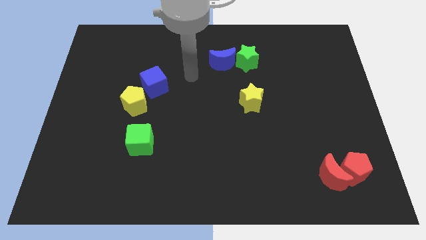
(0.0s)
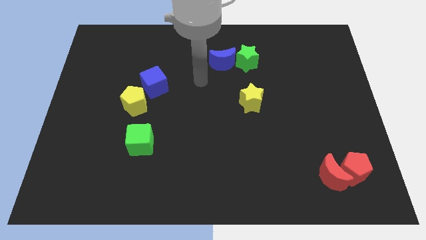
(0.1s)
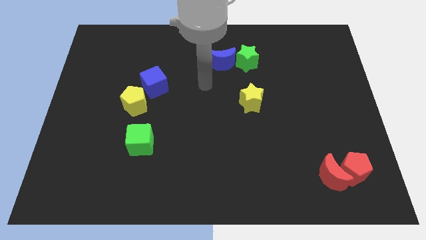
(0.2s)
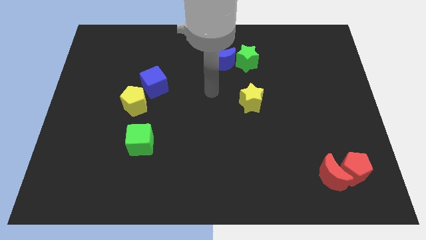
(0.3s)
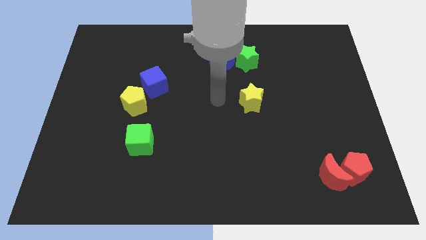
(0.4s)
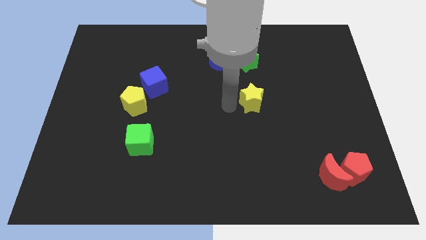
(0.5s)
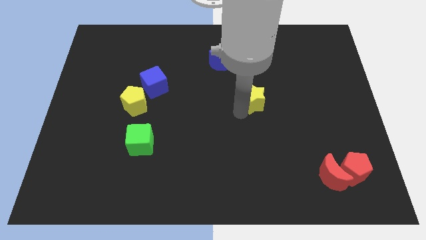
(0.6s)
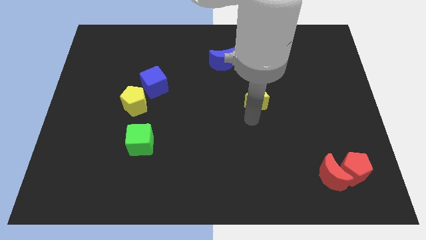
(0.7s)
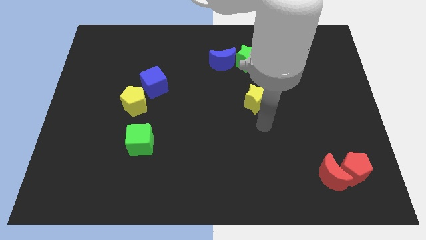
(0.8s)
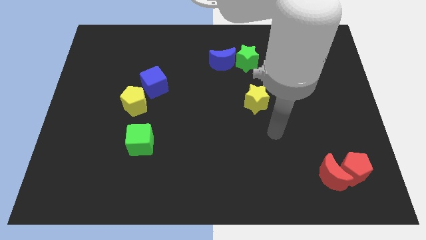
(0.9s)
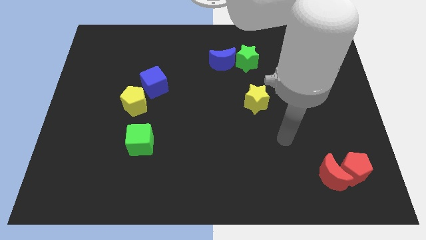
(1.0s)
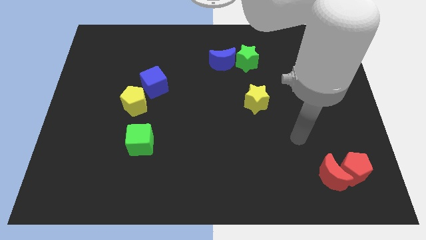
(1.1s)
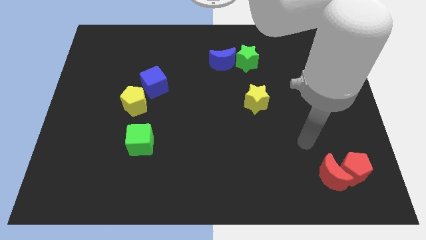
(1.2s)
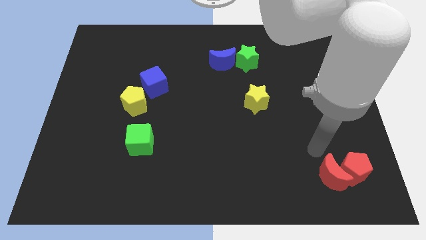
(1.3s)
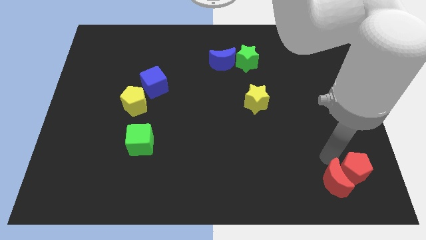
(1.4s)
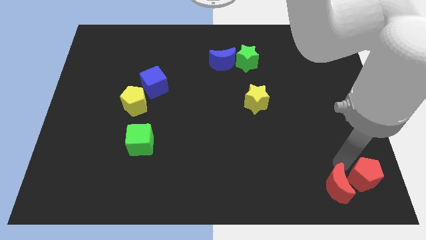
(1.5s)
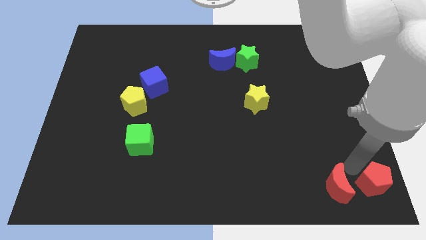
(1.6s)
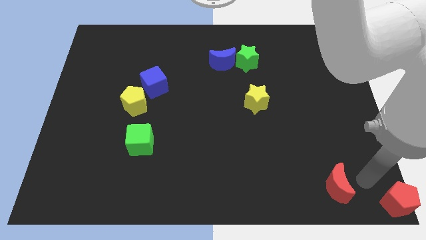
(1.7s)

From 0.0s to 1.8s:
pull the red moon apart from the red pentagon

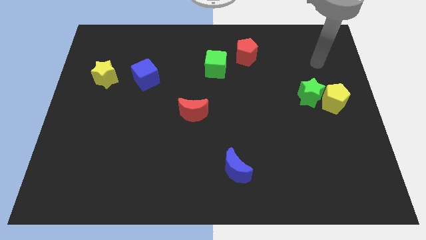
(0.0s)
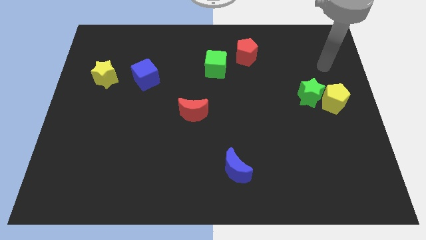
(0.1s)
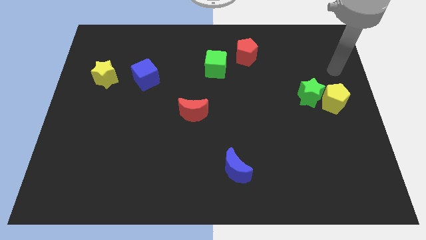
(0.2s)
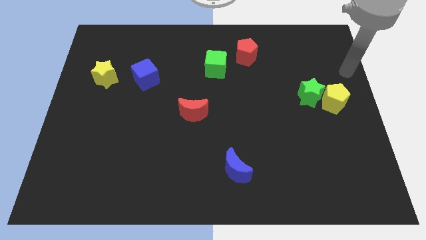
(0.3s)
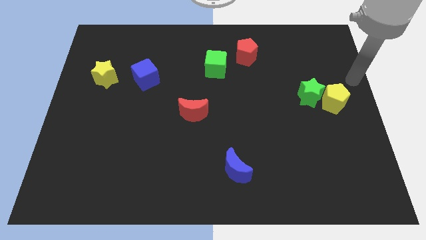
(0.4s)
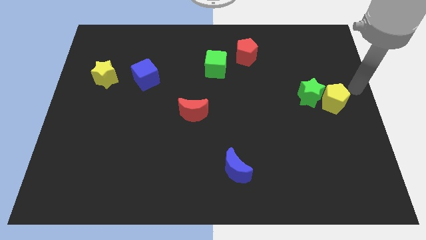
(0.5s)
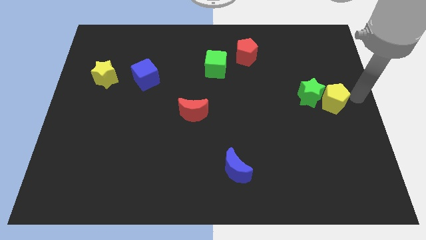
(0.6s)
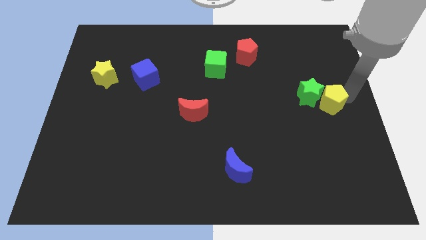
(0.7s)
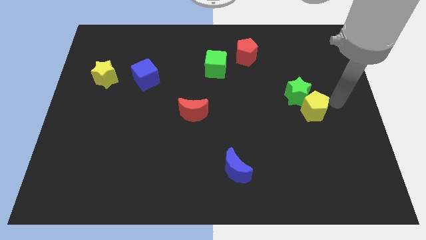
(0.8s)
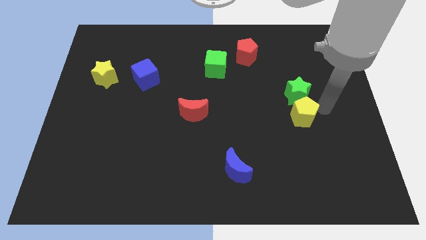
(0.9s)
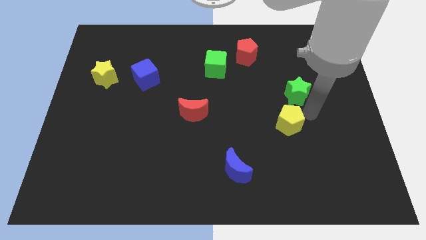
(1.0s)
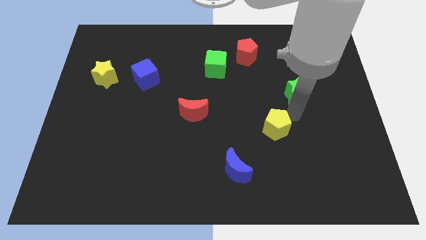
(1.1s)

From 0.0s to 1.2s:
separate the green star from the yellow pentagon

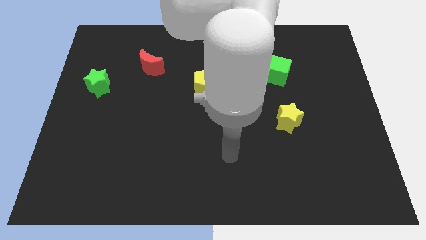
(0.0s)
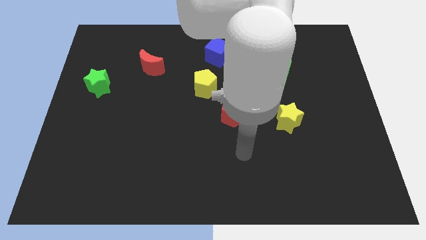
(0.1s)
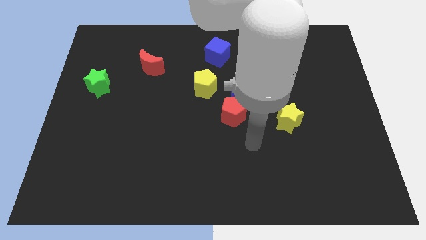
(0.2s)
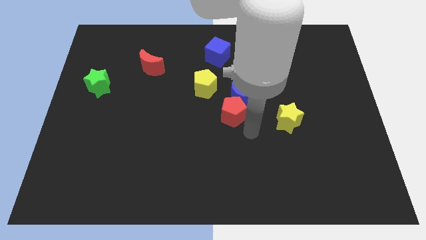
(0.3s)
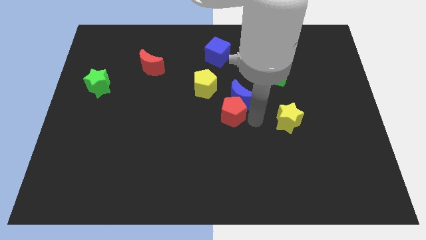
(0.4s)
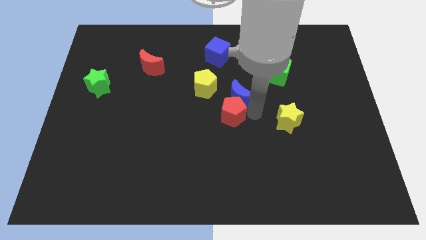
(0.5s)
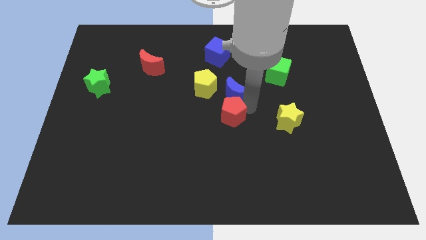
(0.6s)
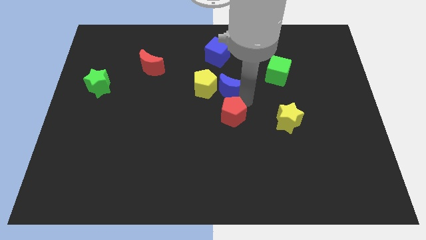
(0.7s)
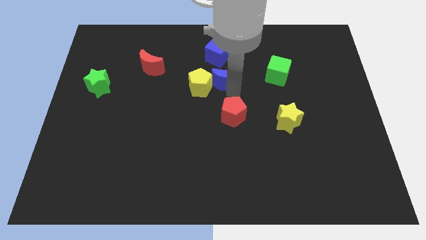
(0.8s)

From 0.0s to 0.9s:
separate the red pentagon from the blue moon

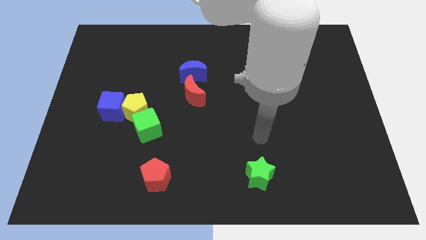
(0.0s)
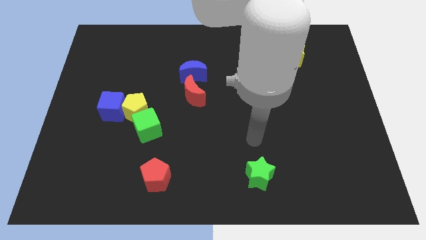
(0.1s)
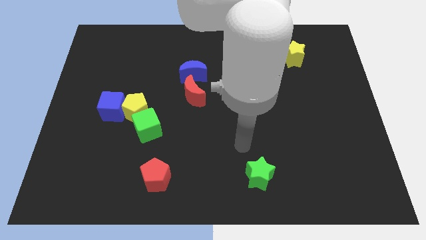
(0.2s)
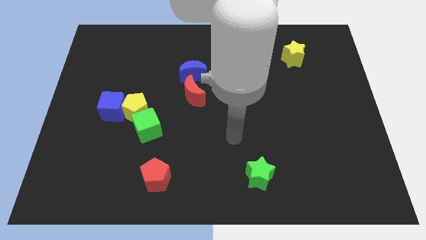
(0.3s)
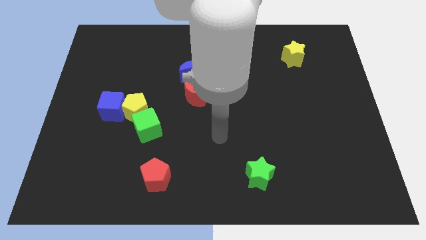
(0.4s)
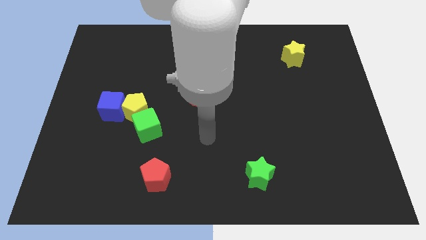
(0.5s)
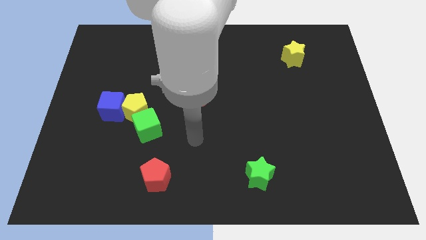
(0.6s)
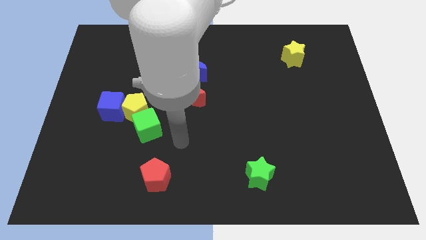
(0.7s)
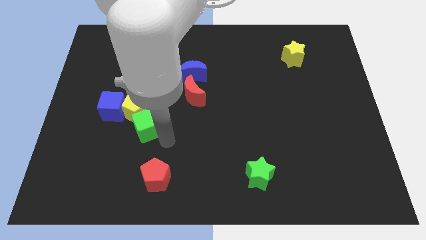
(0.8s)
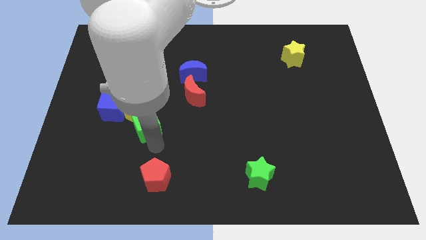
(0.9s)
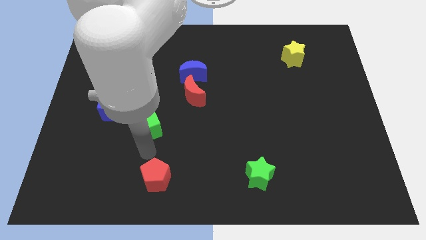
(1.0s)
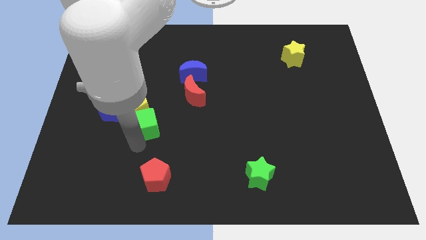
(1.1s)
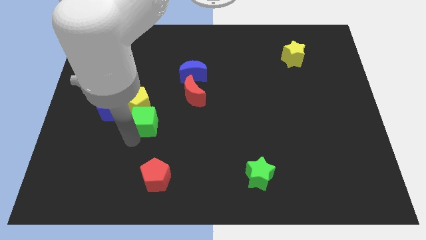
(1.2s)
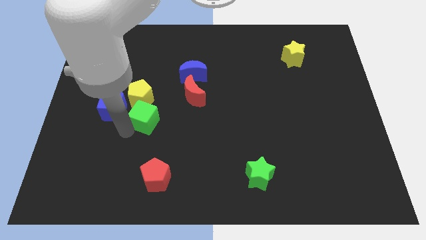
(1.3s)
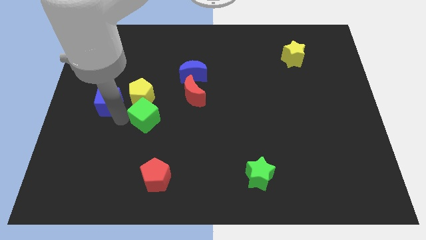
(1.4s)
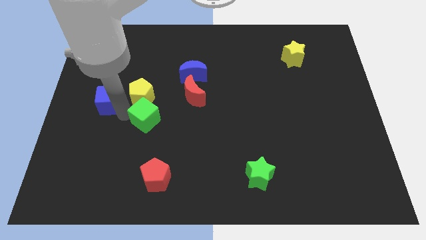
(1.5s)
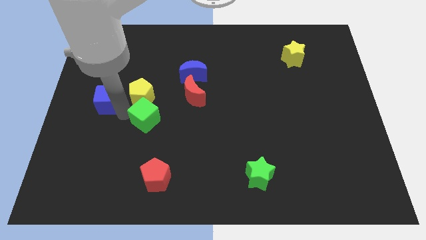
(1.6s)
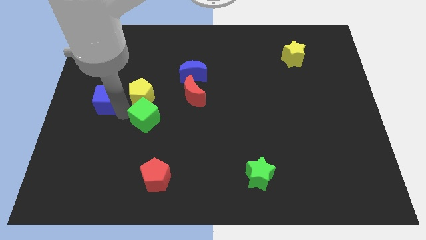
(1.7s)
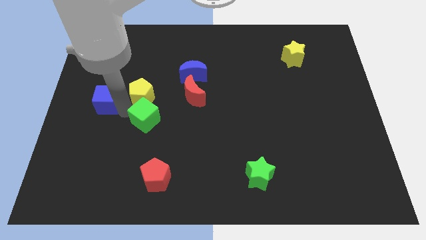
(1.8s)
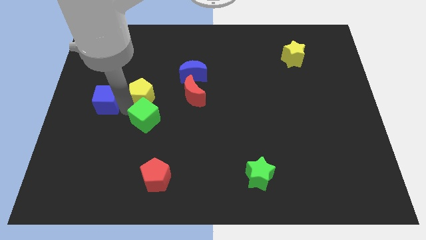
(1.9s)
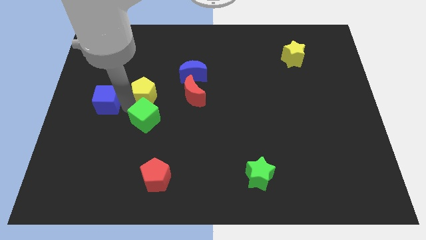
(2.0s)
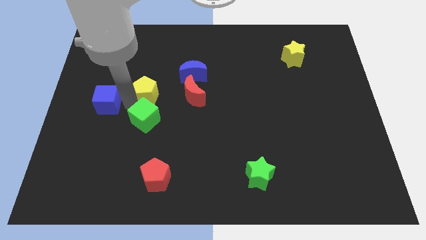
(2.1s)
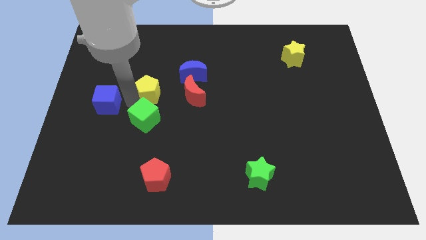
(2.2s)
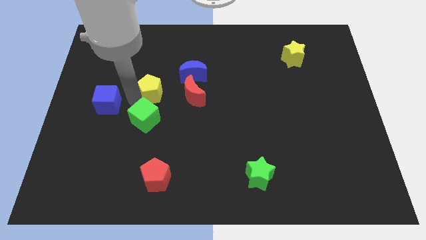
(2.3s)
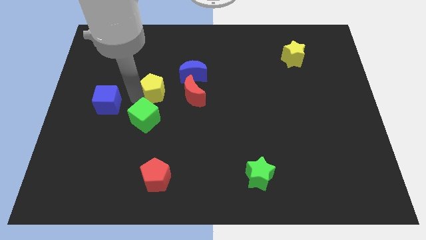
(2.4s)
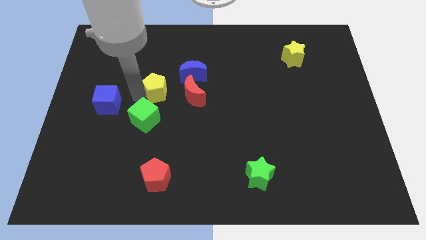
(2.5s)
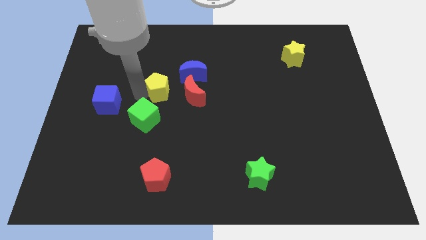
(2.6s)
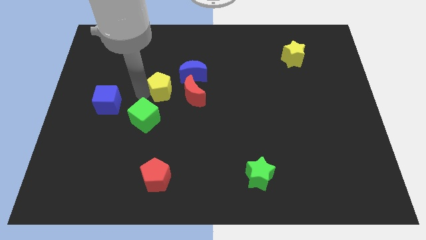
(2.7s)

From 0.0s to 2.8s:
move the yellow pentagon away from the green cube and blue cube

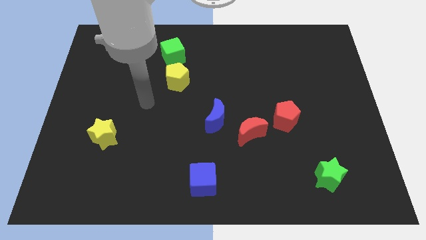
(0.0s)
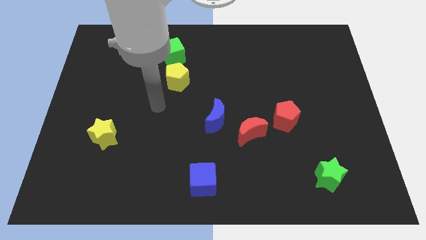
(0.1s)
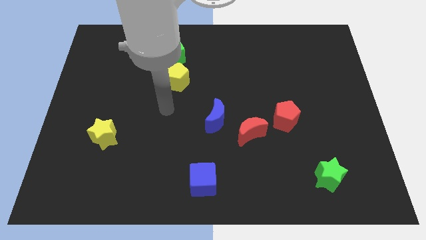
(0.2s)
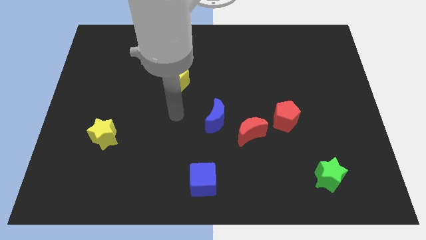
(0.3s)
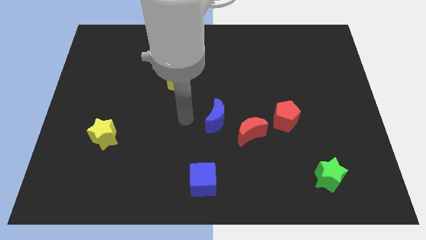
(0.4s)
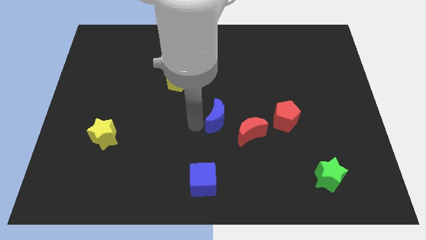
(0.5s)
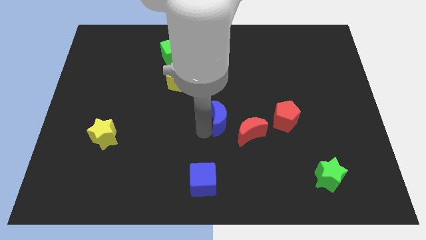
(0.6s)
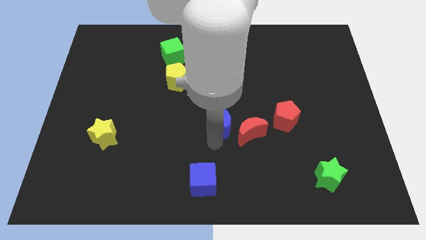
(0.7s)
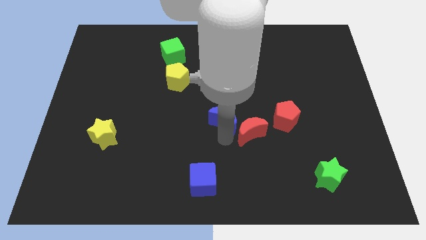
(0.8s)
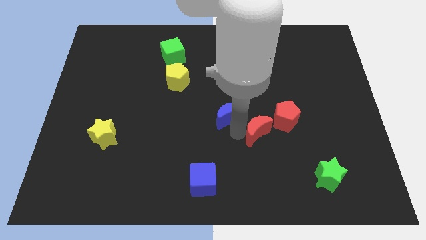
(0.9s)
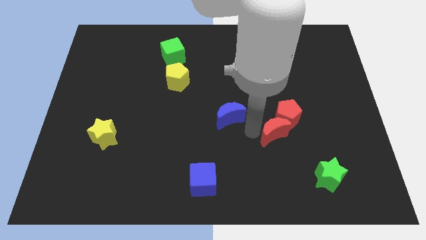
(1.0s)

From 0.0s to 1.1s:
move the blue moon away from the red moon

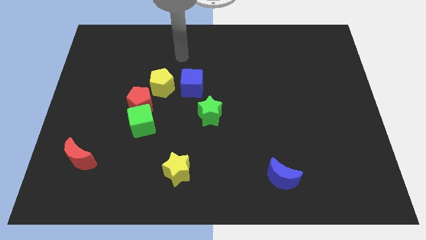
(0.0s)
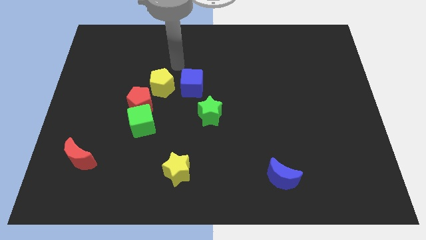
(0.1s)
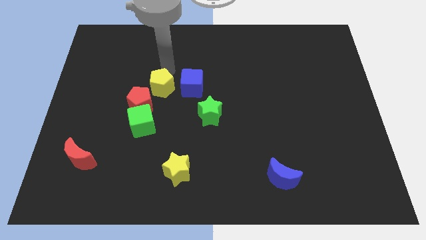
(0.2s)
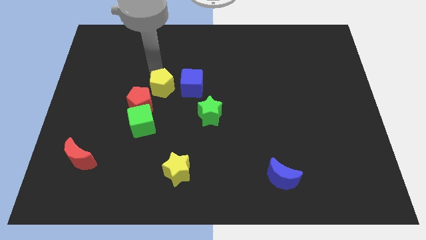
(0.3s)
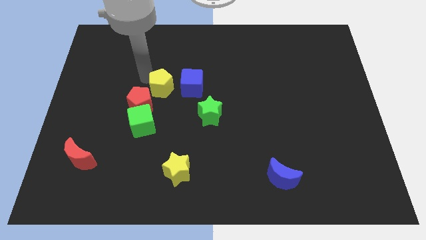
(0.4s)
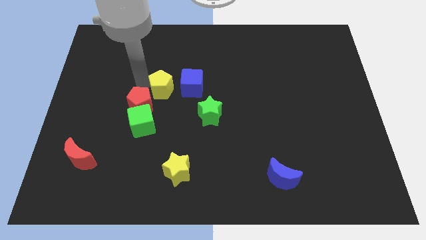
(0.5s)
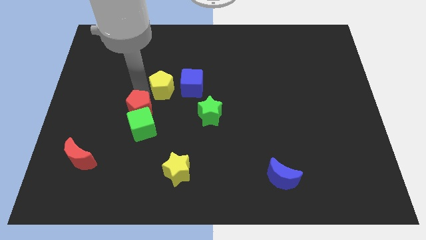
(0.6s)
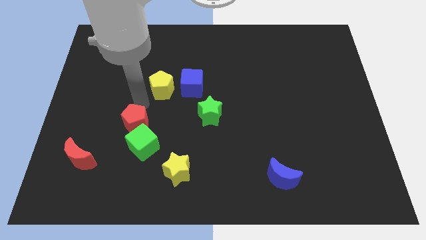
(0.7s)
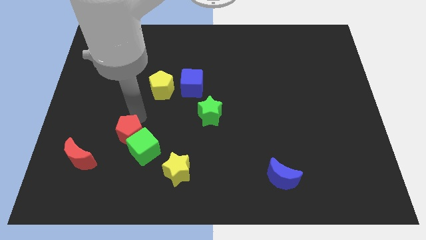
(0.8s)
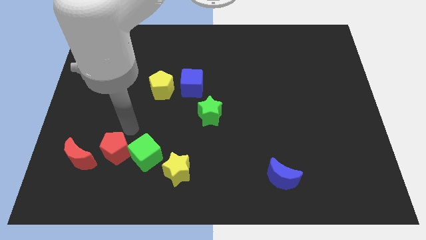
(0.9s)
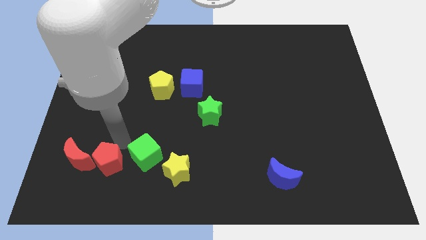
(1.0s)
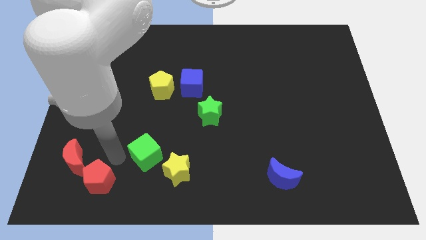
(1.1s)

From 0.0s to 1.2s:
separate the green cube from the red pentagon

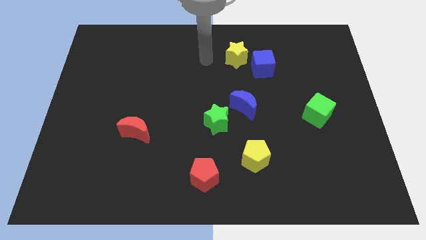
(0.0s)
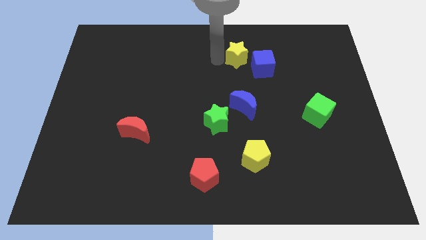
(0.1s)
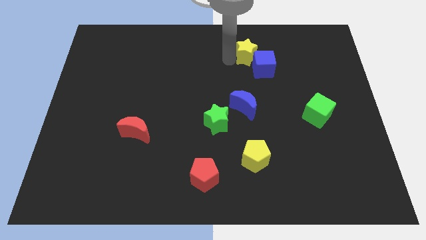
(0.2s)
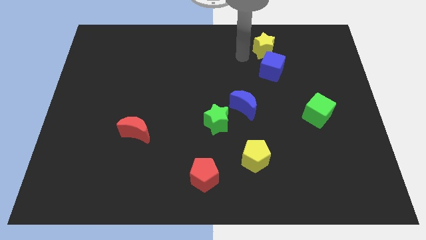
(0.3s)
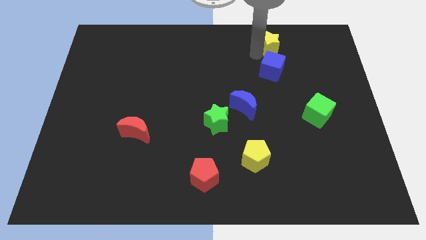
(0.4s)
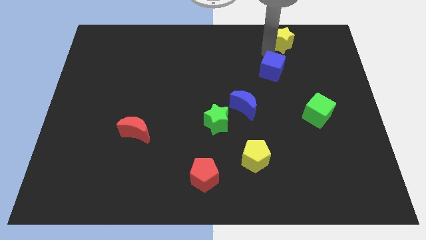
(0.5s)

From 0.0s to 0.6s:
pull the blue cube apart from the yellow star
